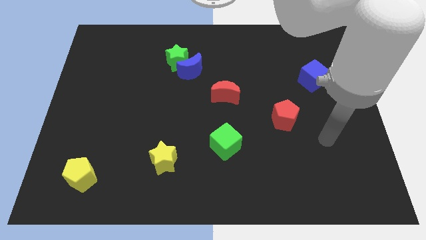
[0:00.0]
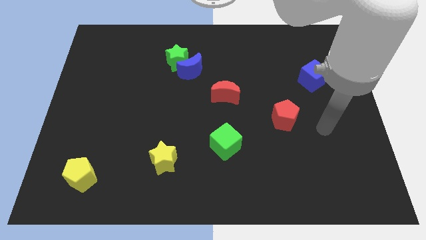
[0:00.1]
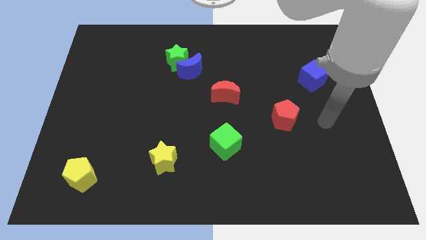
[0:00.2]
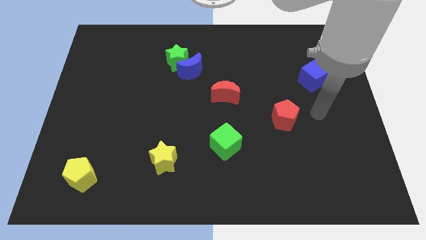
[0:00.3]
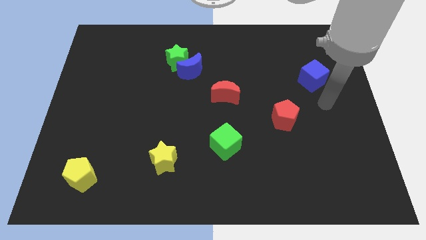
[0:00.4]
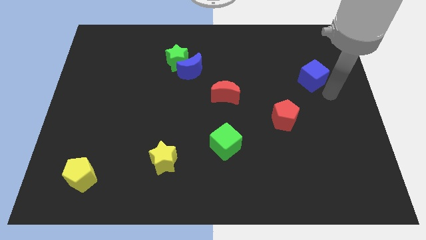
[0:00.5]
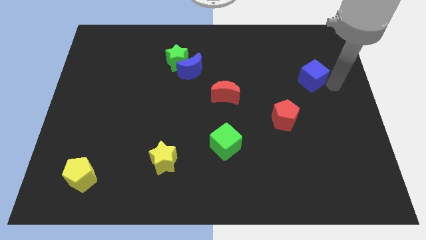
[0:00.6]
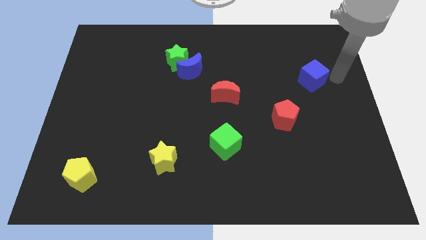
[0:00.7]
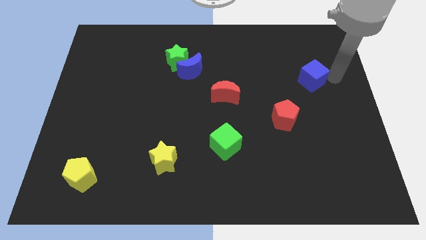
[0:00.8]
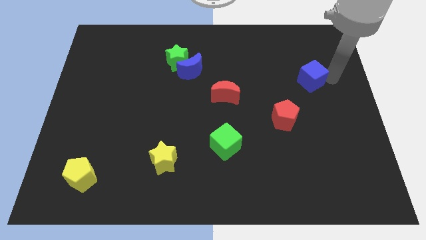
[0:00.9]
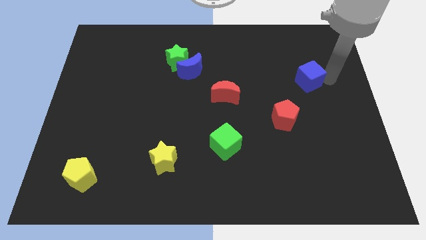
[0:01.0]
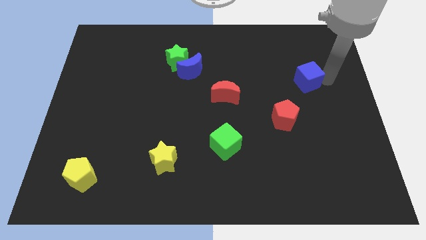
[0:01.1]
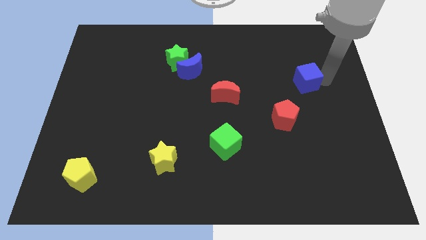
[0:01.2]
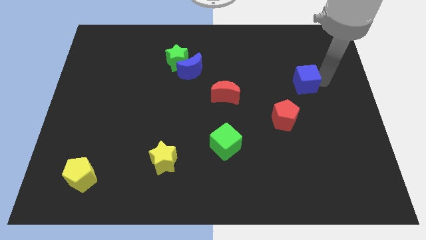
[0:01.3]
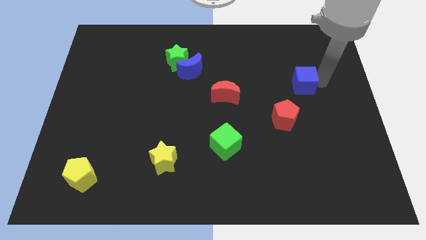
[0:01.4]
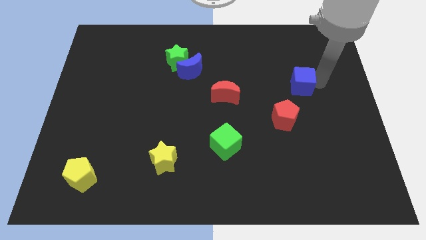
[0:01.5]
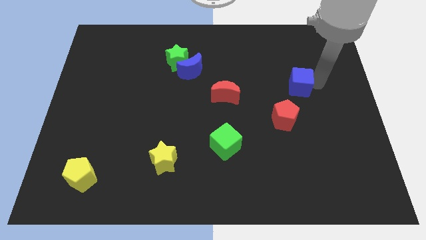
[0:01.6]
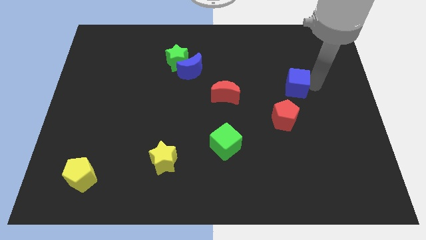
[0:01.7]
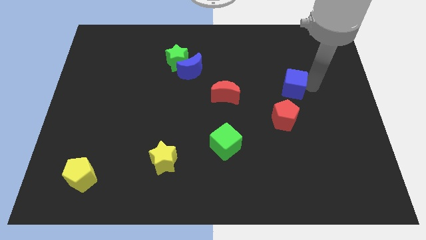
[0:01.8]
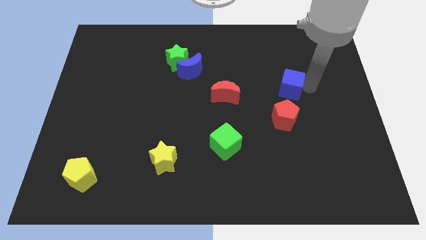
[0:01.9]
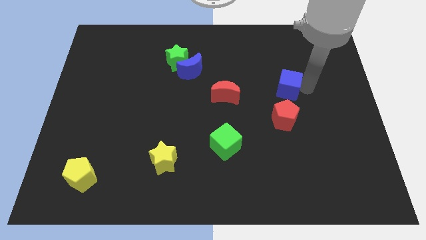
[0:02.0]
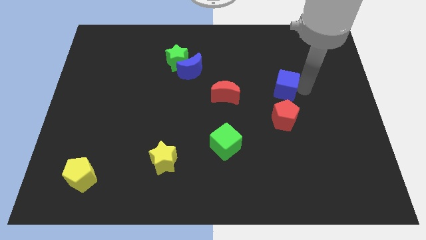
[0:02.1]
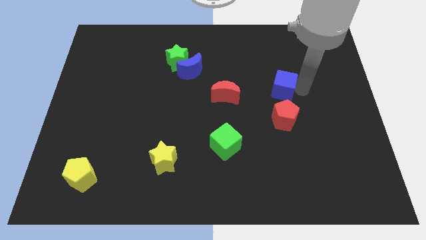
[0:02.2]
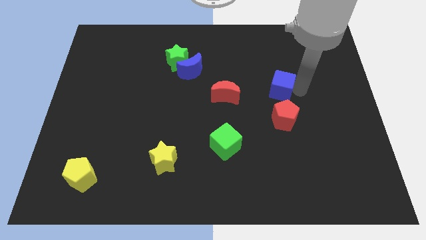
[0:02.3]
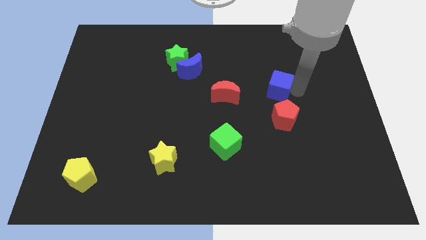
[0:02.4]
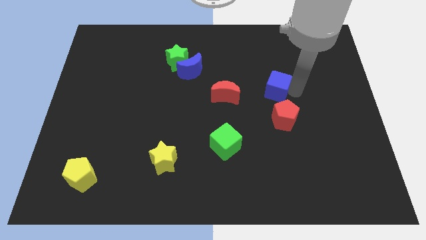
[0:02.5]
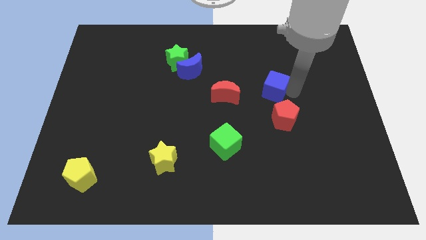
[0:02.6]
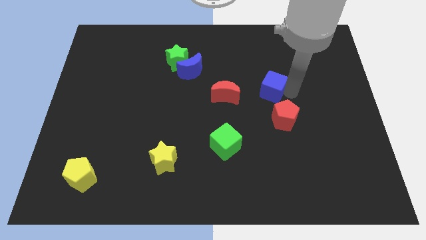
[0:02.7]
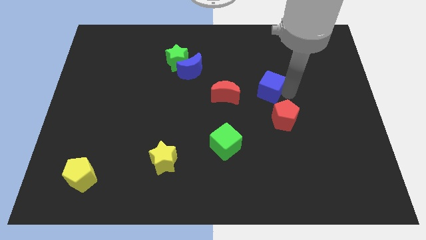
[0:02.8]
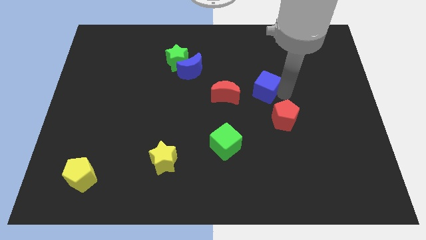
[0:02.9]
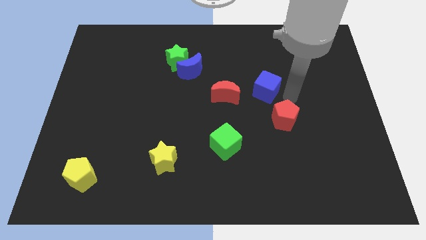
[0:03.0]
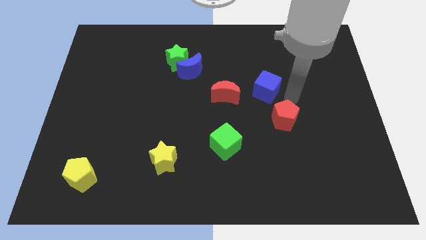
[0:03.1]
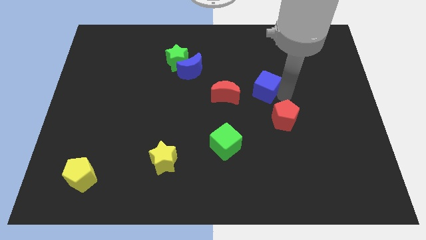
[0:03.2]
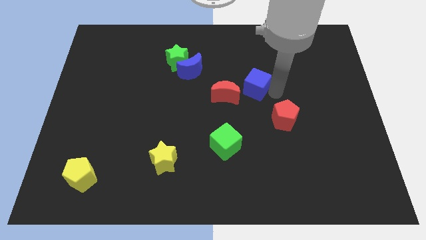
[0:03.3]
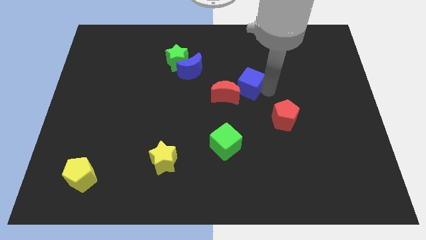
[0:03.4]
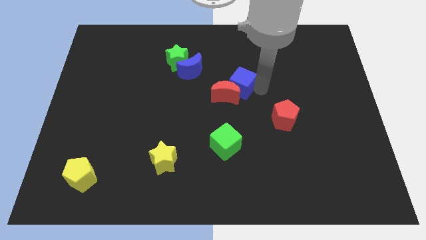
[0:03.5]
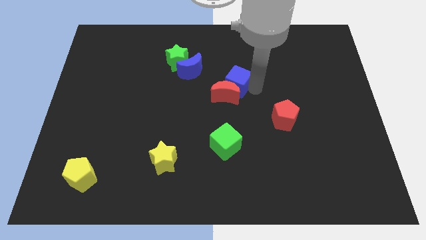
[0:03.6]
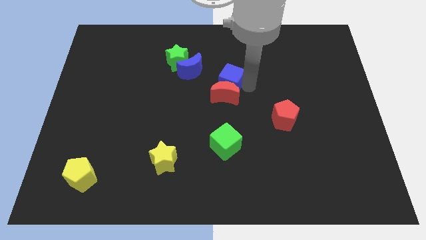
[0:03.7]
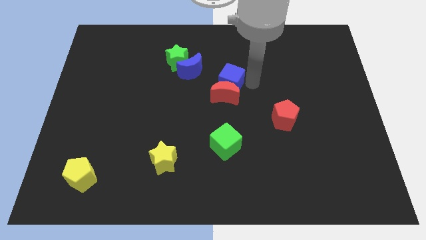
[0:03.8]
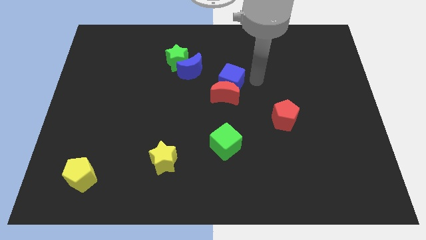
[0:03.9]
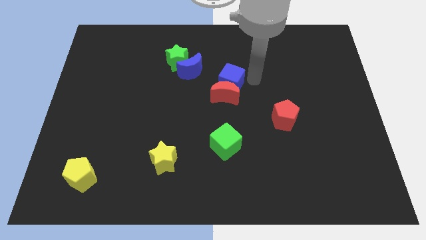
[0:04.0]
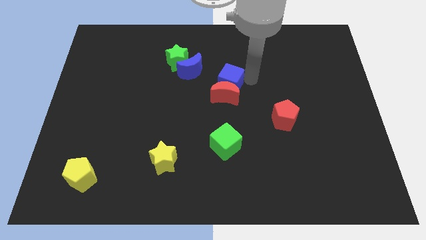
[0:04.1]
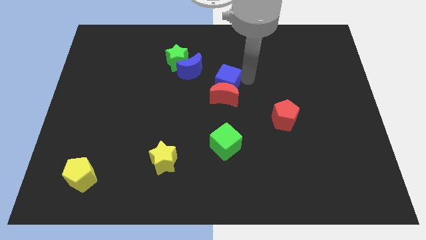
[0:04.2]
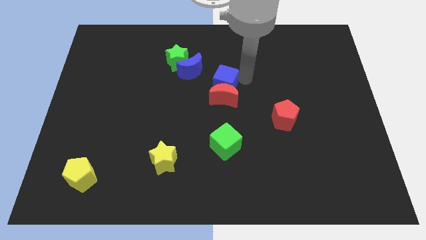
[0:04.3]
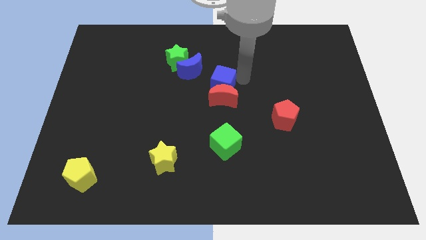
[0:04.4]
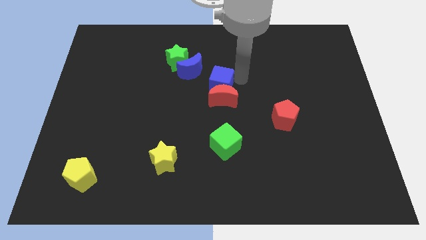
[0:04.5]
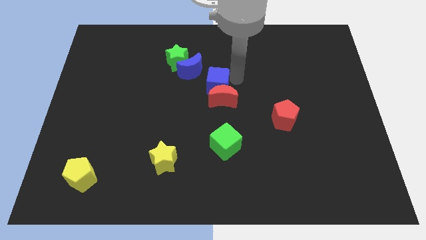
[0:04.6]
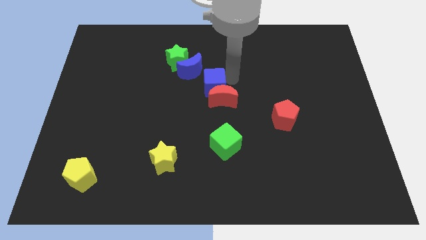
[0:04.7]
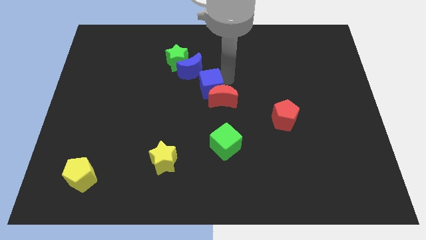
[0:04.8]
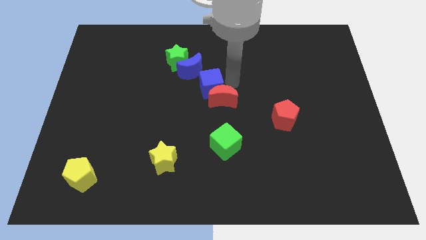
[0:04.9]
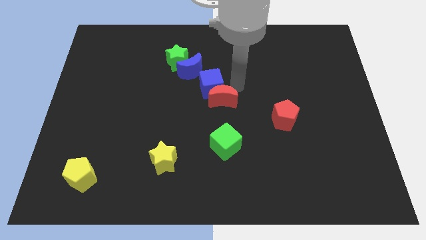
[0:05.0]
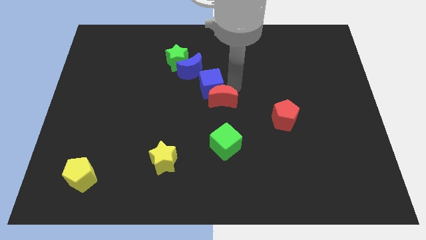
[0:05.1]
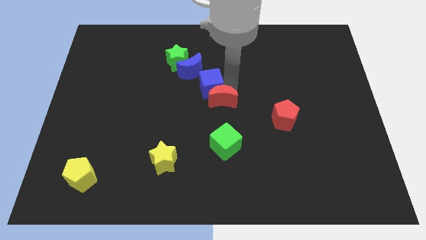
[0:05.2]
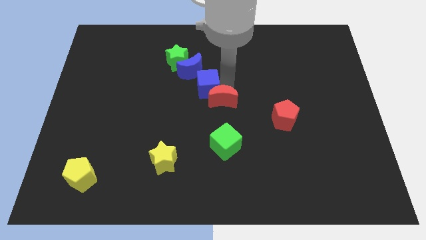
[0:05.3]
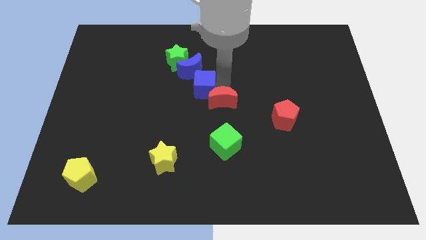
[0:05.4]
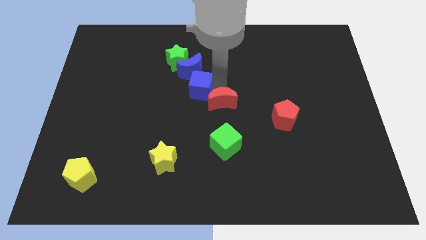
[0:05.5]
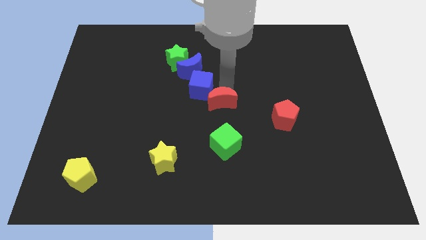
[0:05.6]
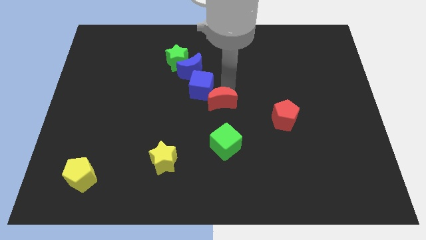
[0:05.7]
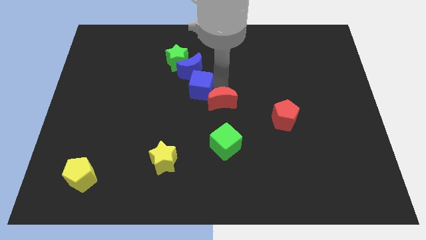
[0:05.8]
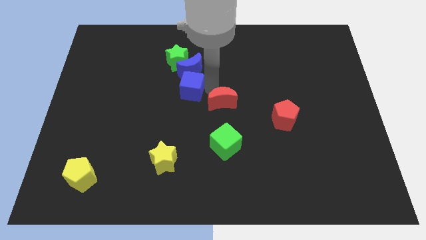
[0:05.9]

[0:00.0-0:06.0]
move the blue cube diagonally down and to the left of the blue moon
